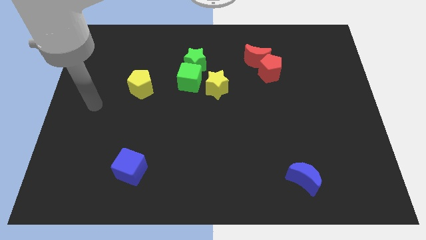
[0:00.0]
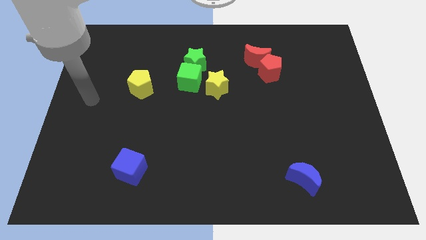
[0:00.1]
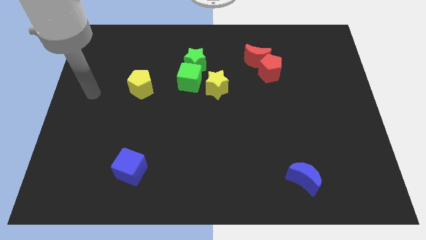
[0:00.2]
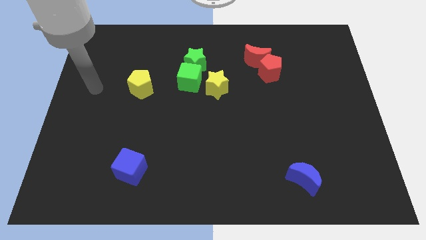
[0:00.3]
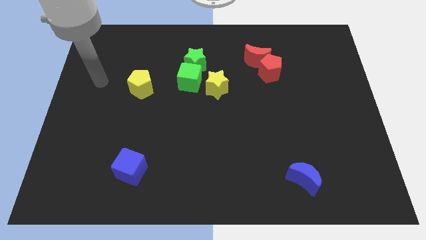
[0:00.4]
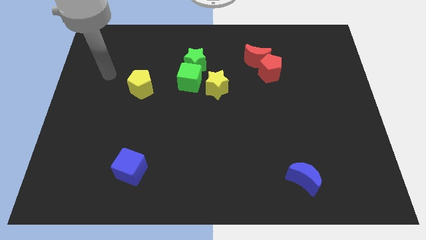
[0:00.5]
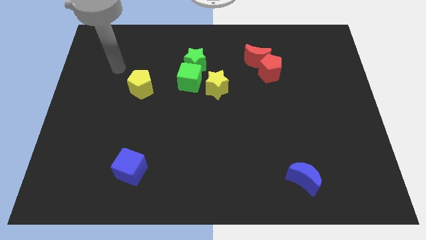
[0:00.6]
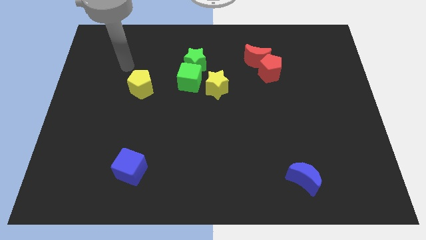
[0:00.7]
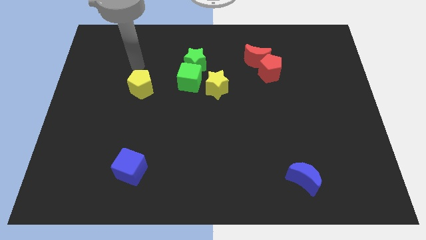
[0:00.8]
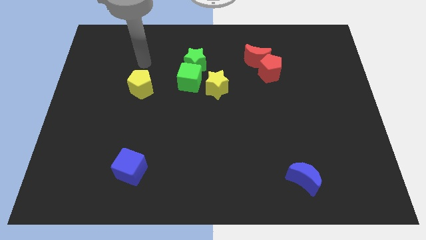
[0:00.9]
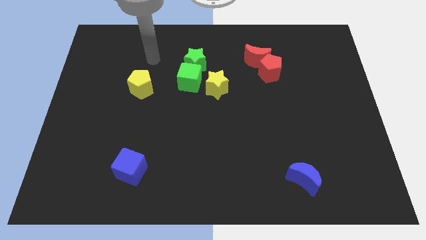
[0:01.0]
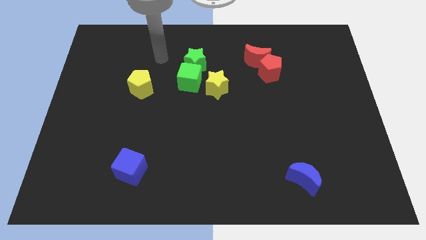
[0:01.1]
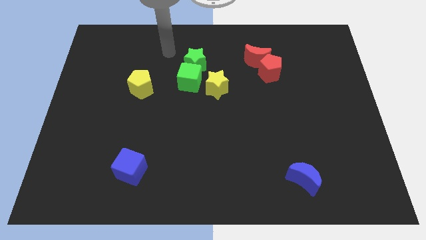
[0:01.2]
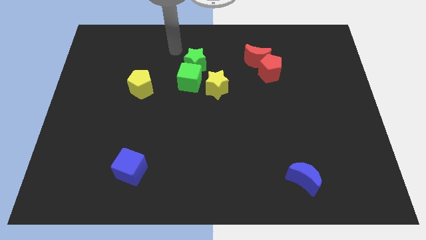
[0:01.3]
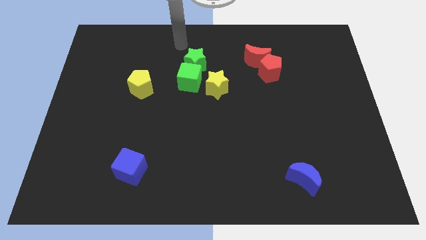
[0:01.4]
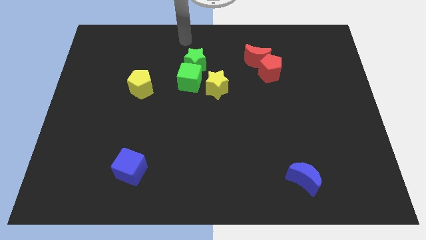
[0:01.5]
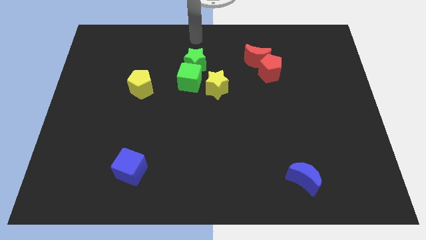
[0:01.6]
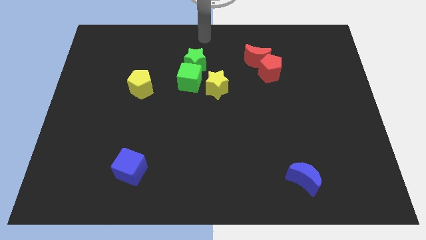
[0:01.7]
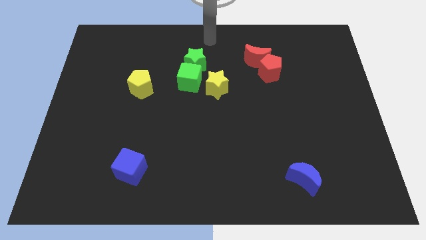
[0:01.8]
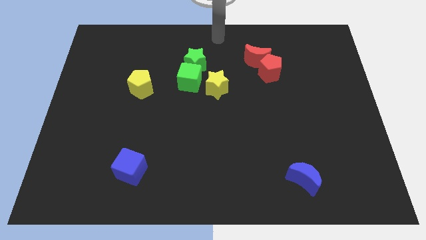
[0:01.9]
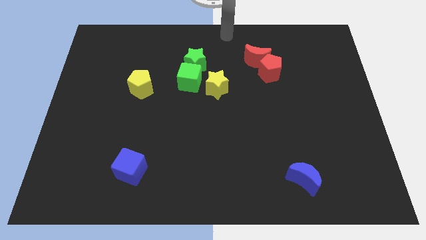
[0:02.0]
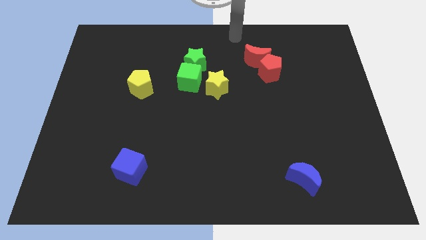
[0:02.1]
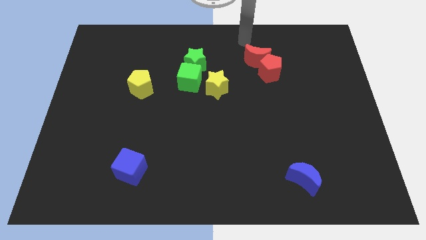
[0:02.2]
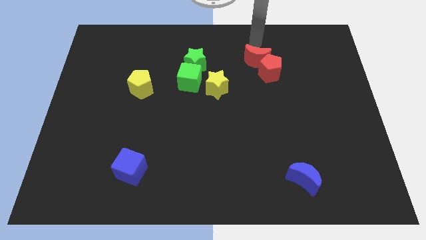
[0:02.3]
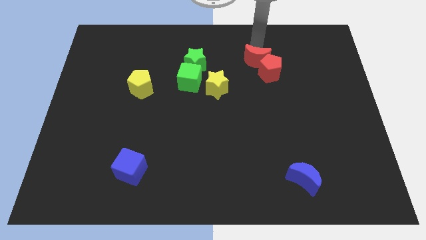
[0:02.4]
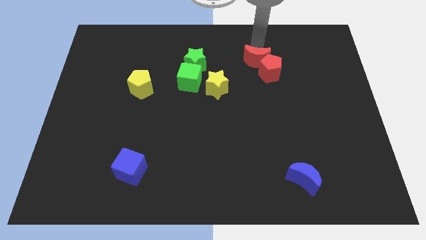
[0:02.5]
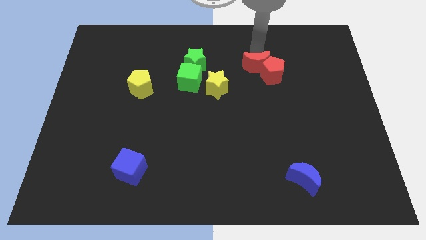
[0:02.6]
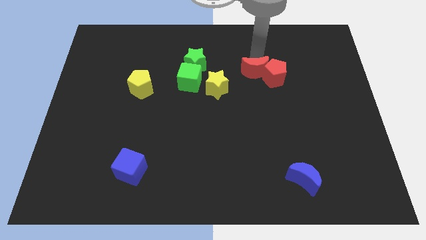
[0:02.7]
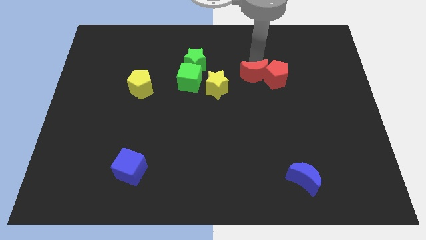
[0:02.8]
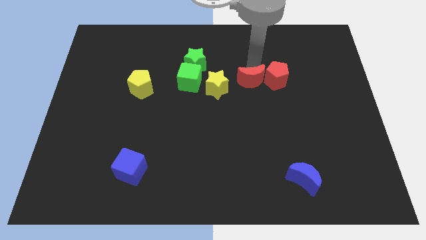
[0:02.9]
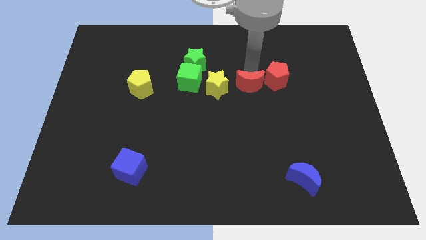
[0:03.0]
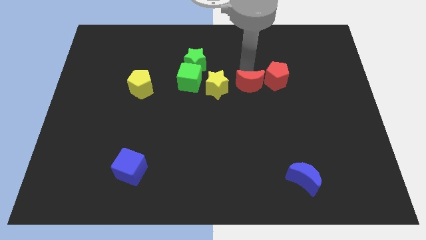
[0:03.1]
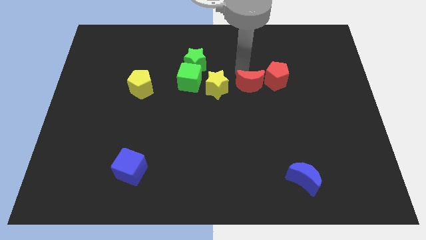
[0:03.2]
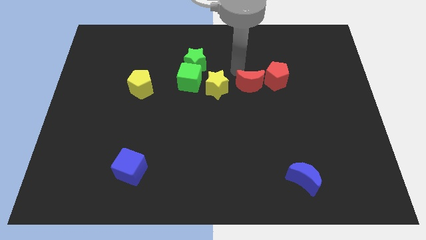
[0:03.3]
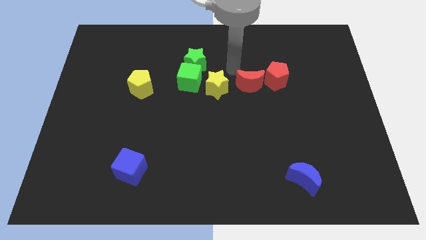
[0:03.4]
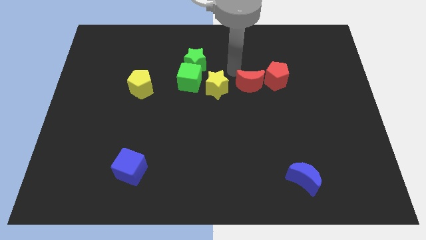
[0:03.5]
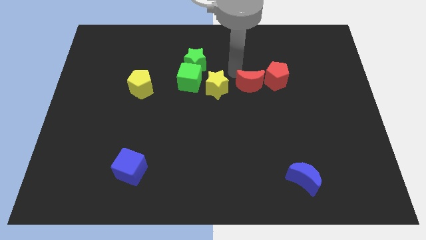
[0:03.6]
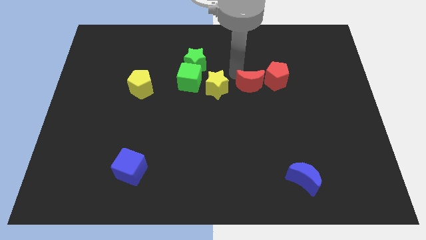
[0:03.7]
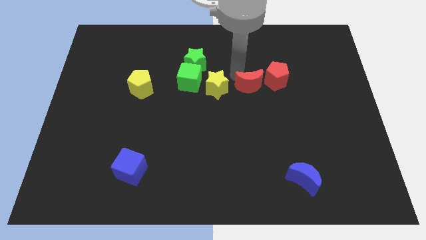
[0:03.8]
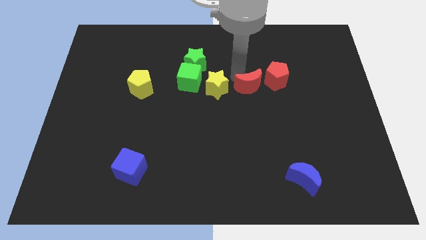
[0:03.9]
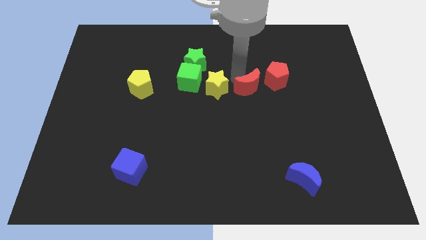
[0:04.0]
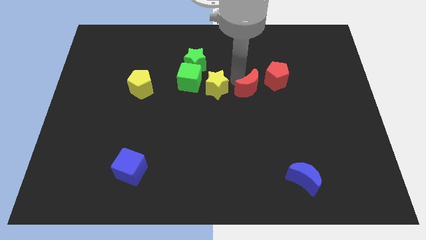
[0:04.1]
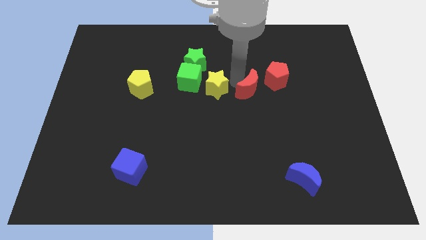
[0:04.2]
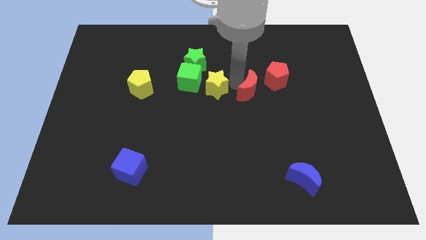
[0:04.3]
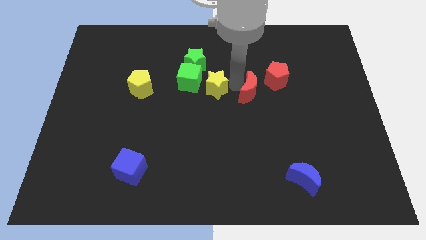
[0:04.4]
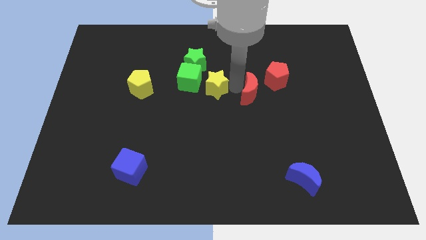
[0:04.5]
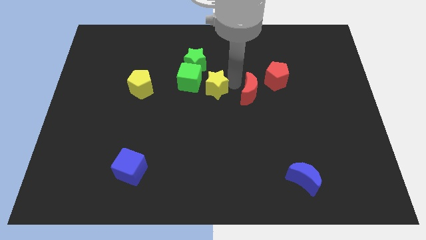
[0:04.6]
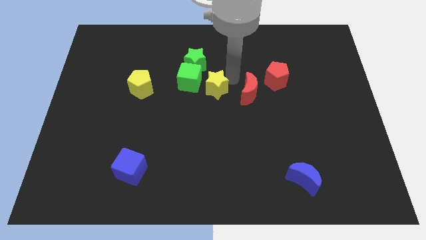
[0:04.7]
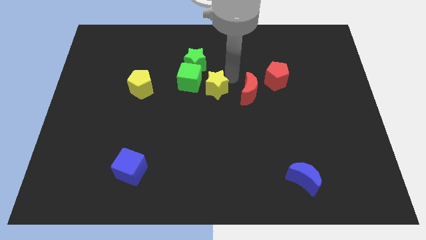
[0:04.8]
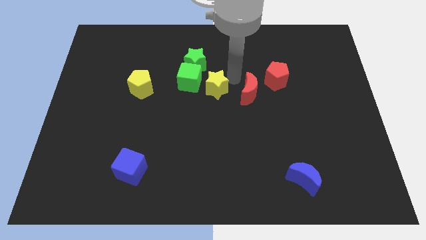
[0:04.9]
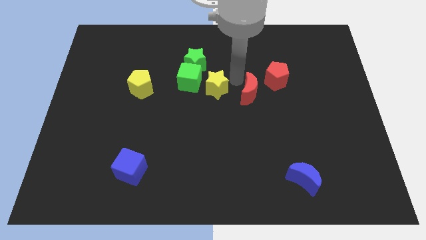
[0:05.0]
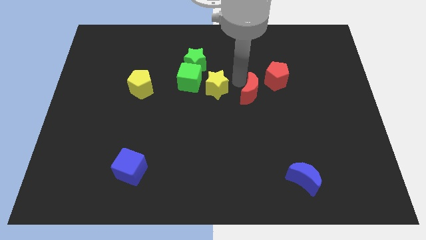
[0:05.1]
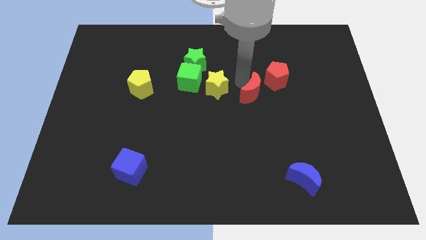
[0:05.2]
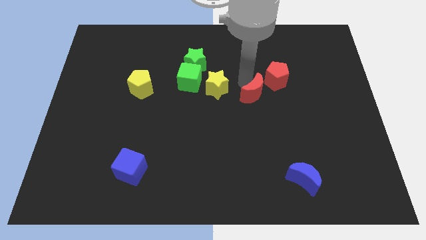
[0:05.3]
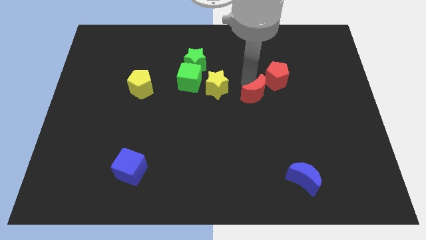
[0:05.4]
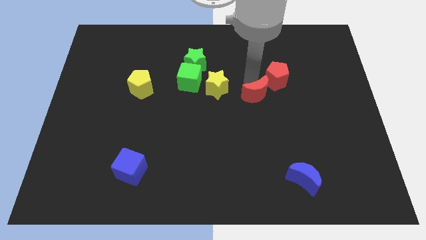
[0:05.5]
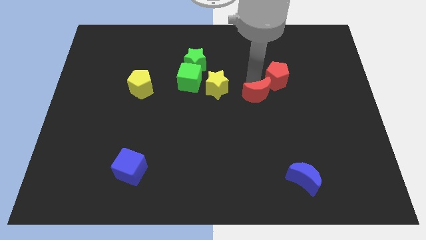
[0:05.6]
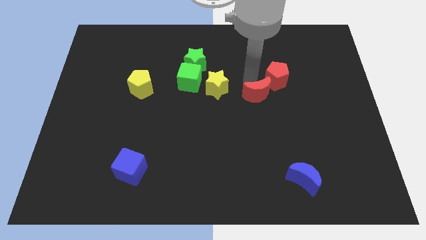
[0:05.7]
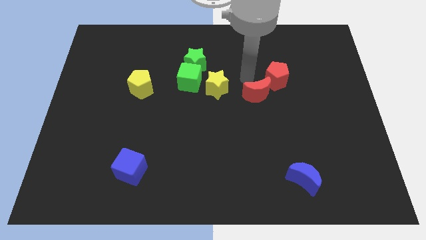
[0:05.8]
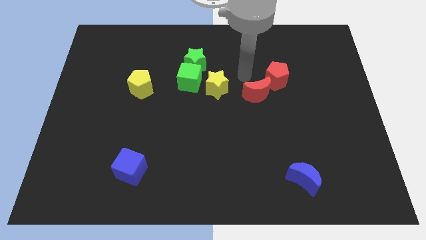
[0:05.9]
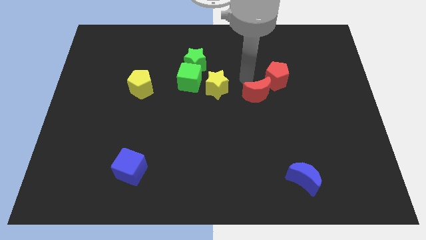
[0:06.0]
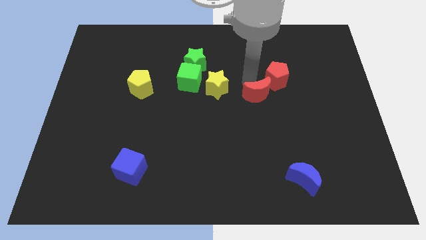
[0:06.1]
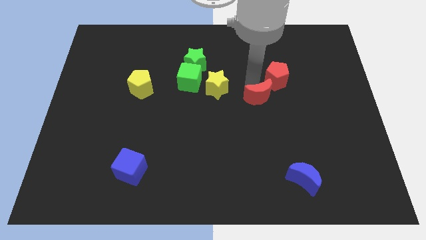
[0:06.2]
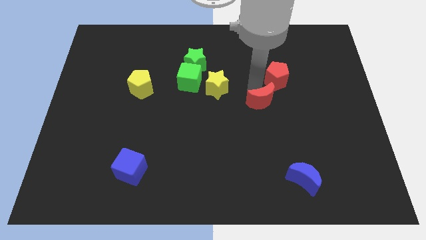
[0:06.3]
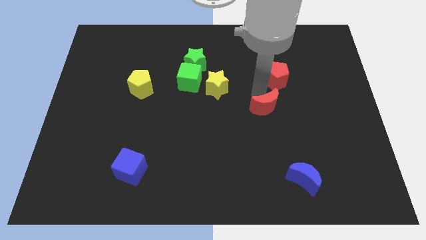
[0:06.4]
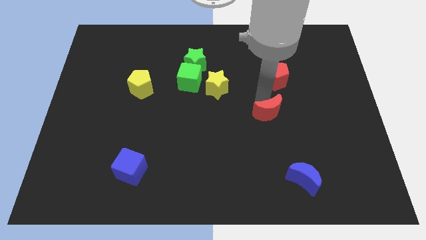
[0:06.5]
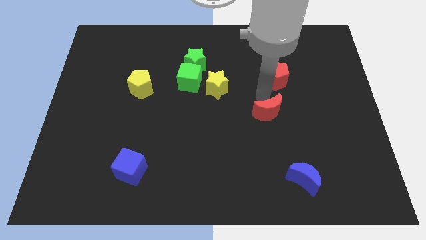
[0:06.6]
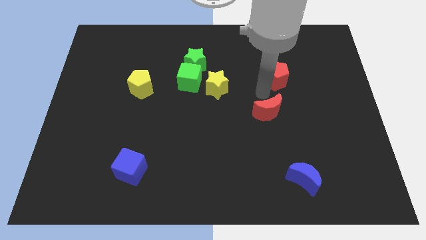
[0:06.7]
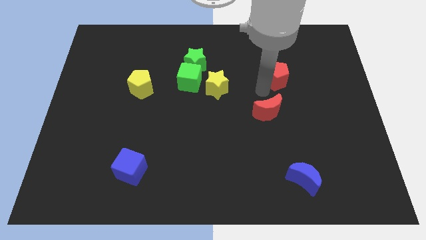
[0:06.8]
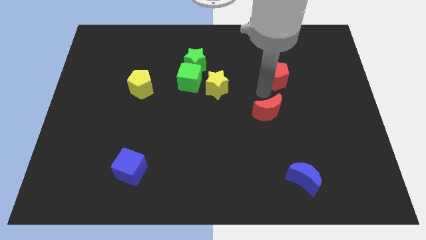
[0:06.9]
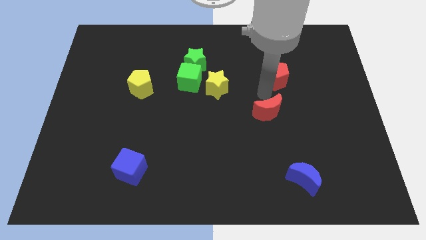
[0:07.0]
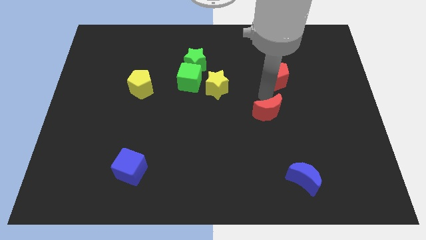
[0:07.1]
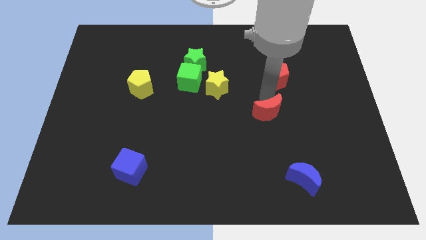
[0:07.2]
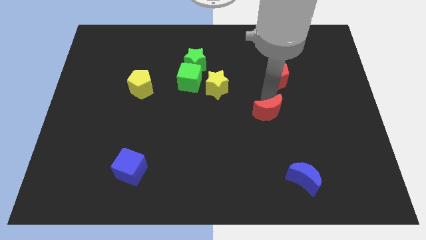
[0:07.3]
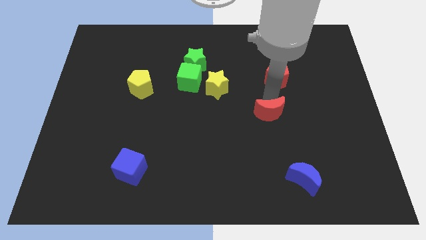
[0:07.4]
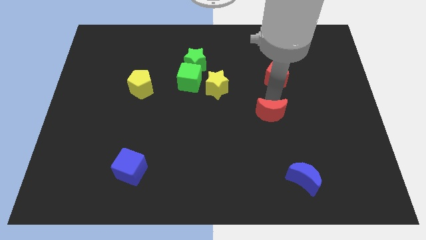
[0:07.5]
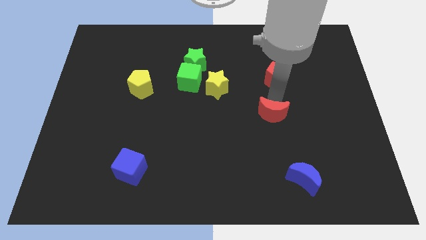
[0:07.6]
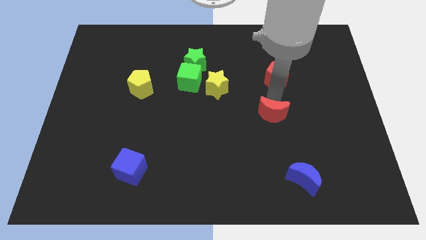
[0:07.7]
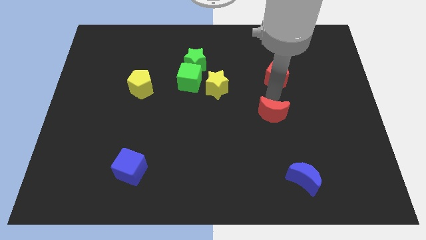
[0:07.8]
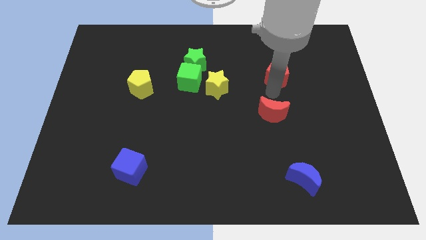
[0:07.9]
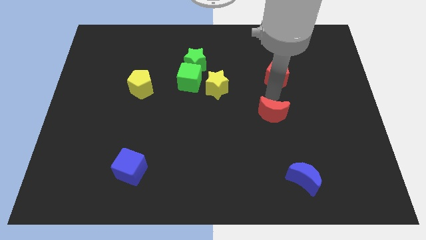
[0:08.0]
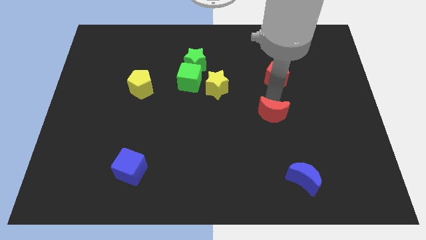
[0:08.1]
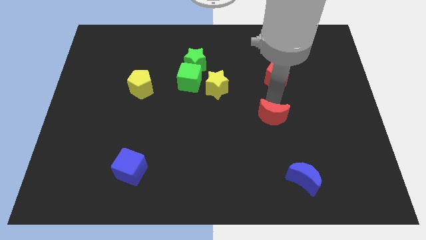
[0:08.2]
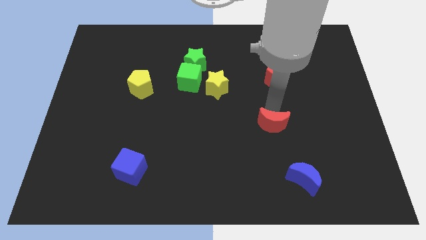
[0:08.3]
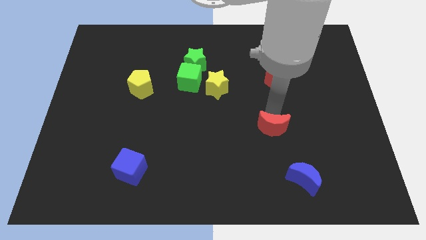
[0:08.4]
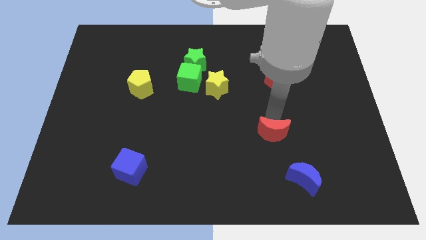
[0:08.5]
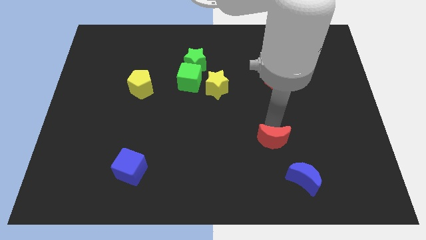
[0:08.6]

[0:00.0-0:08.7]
move the red moon diagonally up and to the left of the blue moon
